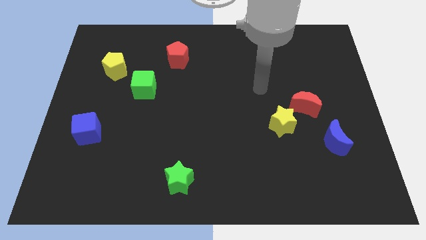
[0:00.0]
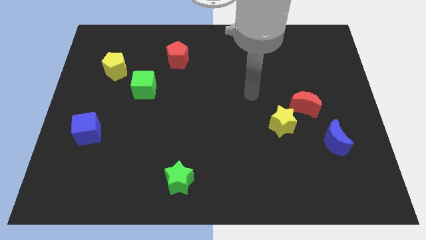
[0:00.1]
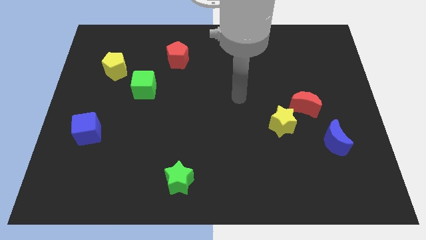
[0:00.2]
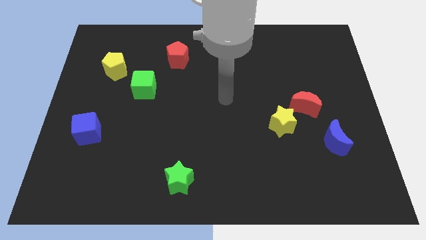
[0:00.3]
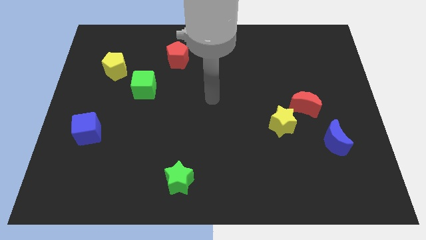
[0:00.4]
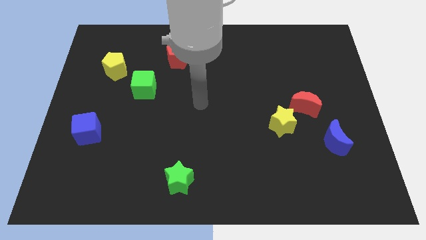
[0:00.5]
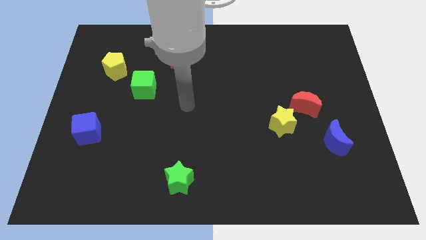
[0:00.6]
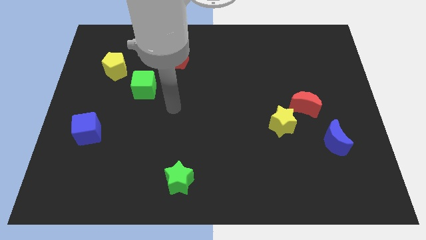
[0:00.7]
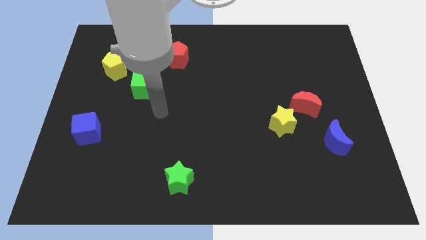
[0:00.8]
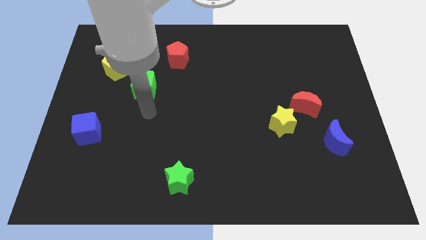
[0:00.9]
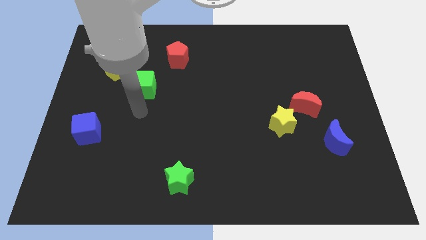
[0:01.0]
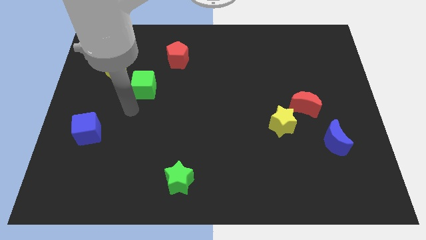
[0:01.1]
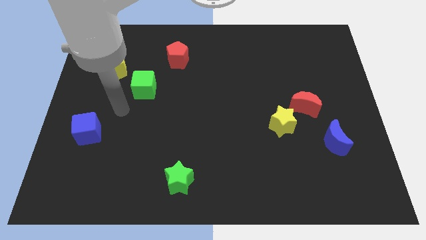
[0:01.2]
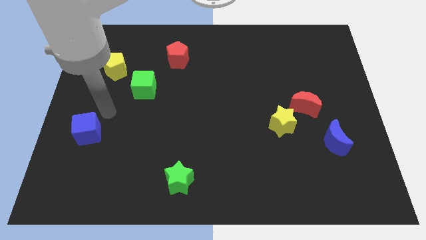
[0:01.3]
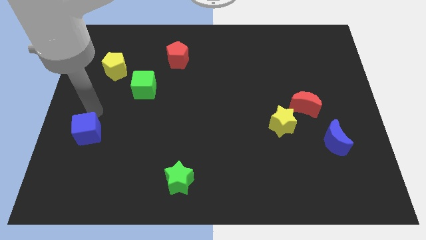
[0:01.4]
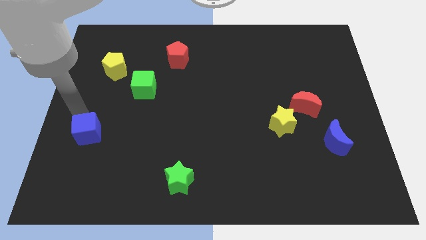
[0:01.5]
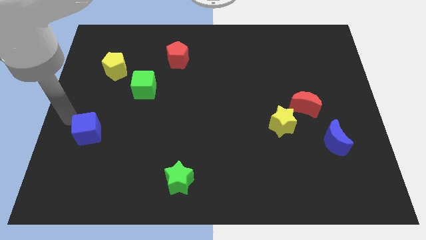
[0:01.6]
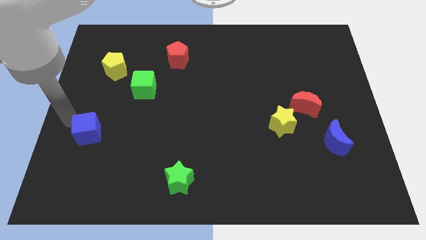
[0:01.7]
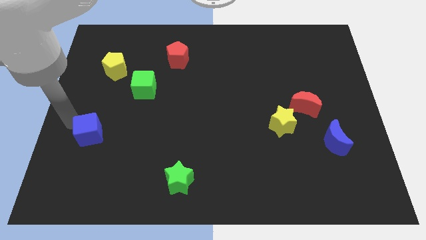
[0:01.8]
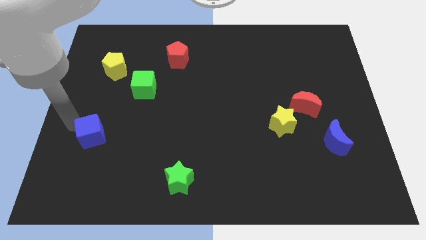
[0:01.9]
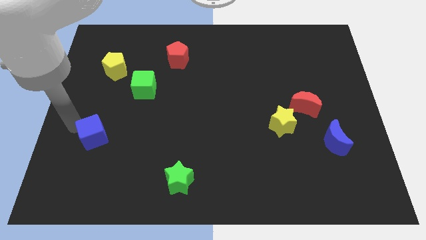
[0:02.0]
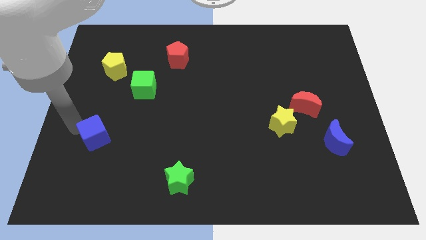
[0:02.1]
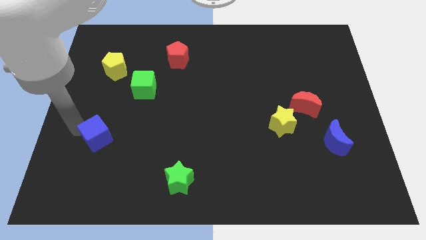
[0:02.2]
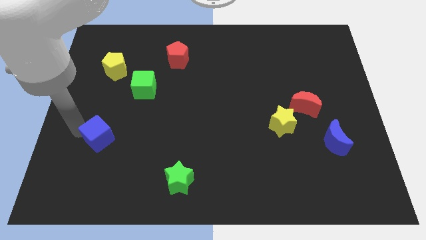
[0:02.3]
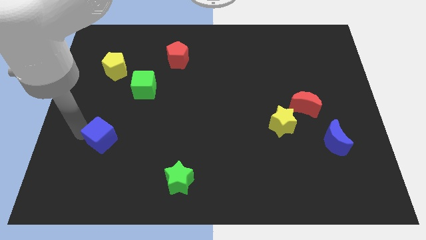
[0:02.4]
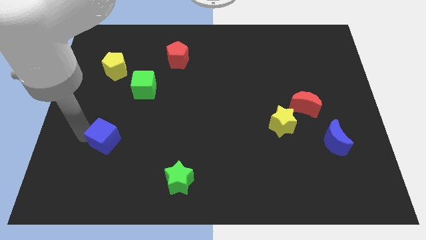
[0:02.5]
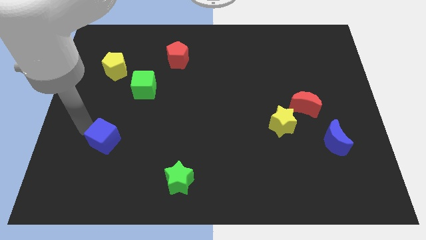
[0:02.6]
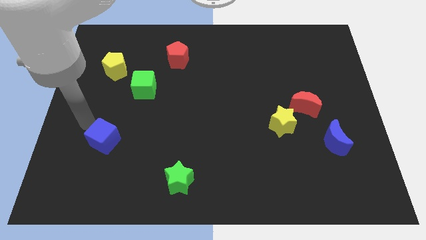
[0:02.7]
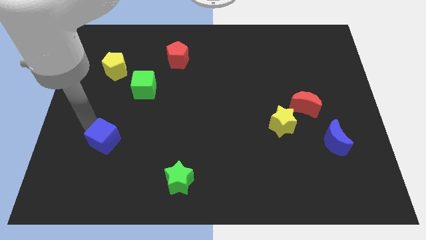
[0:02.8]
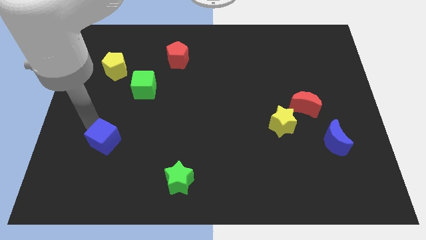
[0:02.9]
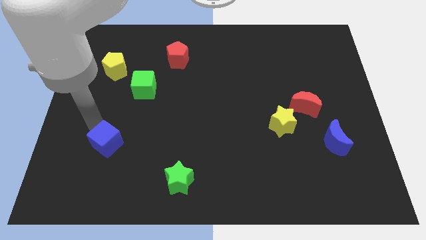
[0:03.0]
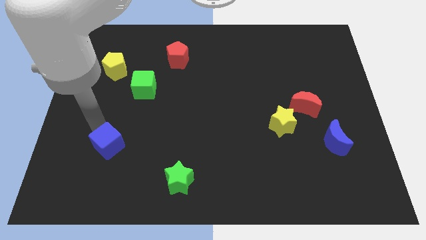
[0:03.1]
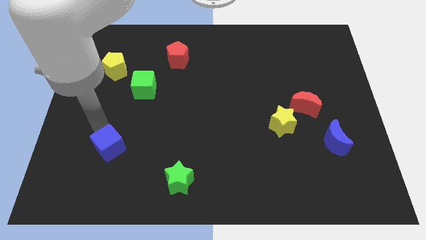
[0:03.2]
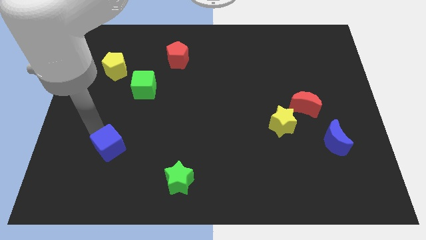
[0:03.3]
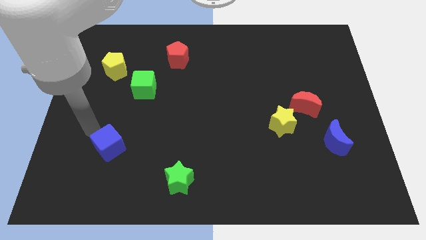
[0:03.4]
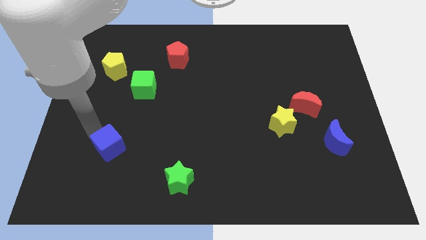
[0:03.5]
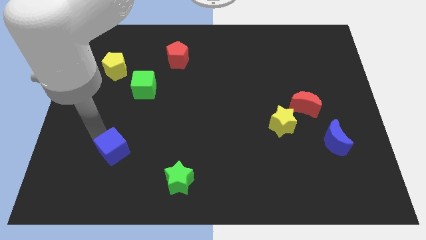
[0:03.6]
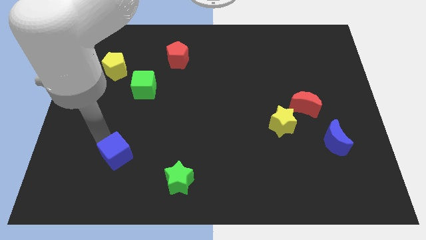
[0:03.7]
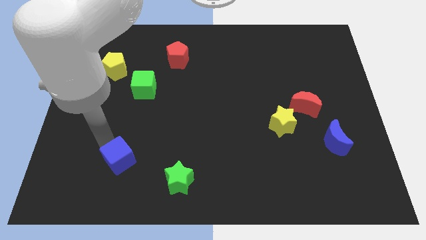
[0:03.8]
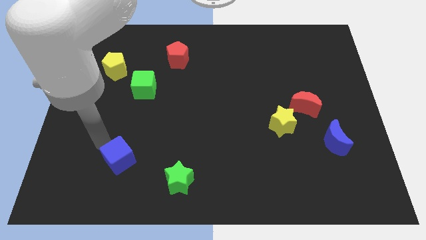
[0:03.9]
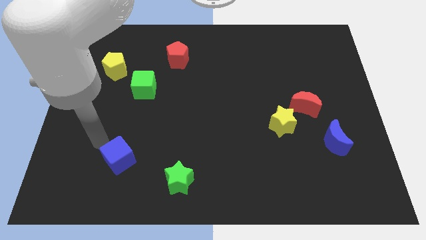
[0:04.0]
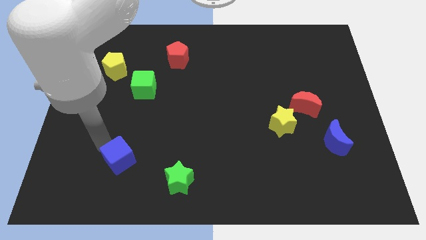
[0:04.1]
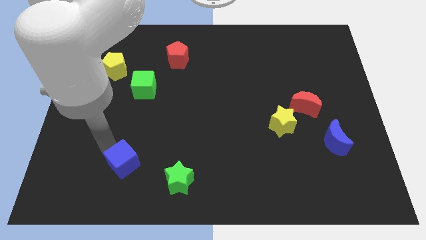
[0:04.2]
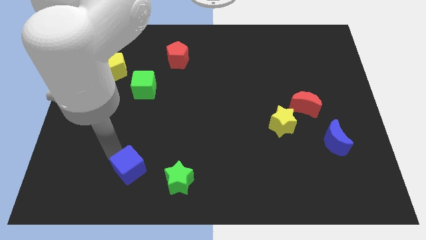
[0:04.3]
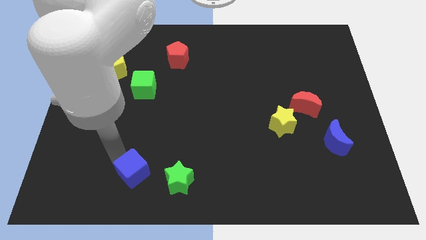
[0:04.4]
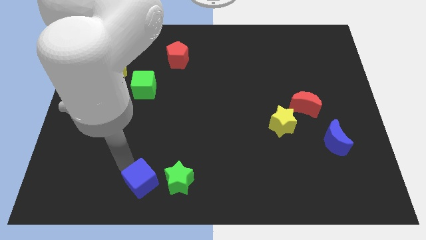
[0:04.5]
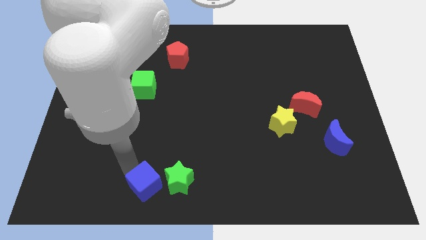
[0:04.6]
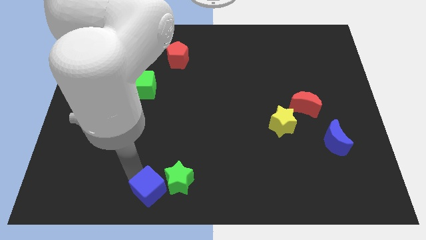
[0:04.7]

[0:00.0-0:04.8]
push the blue cube to the bottom side

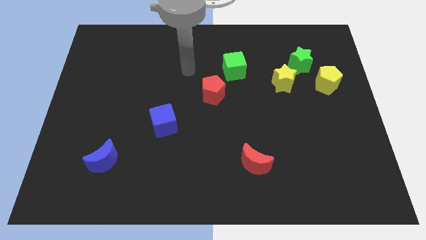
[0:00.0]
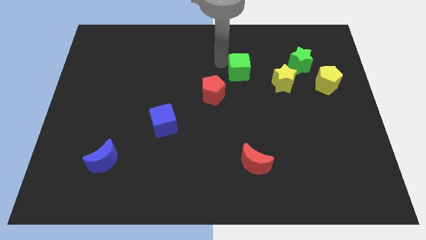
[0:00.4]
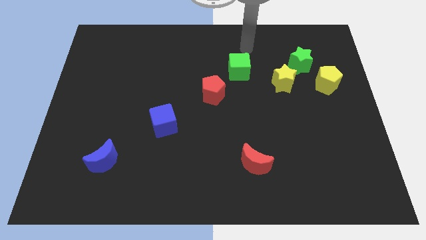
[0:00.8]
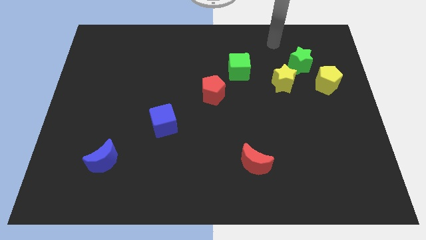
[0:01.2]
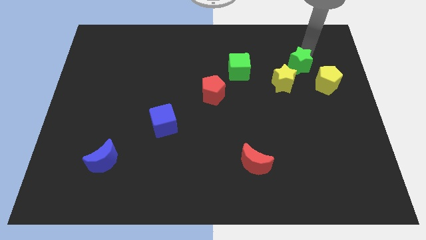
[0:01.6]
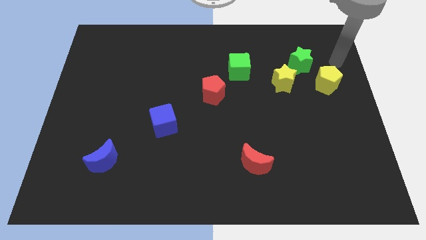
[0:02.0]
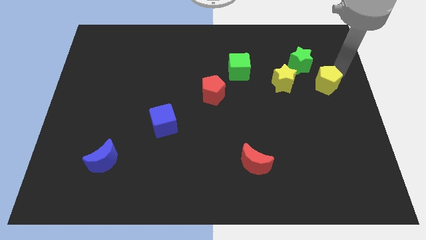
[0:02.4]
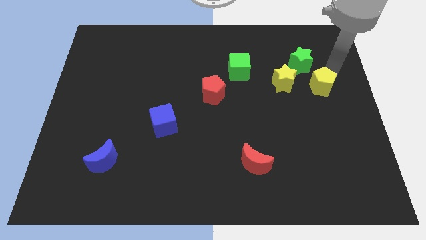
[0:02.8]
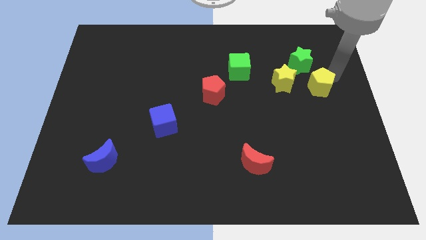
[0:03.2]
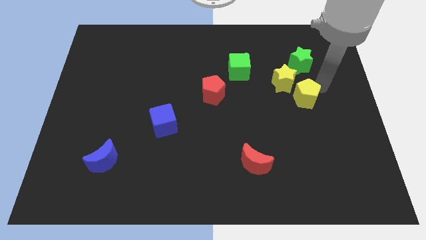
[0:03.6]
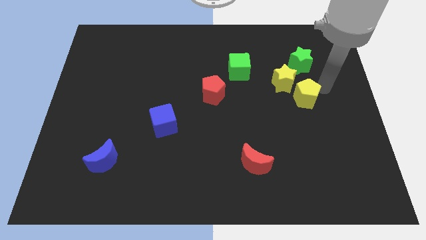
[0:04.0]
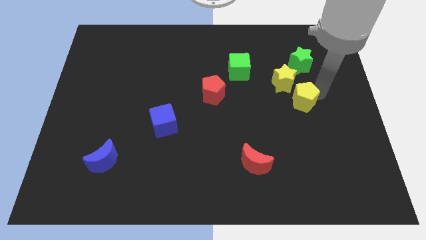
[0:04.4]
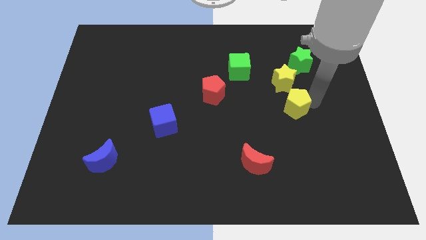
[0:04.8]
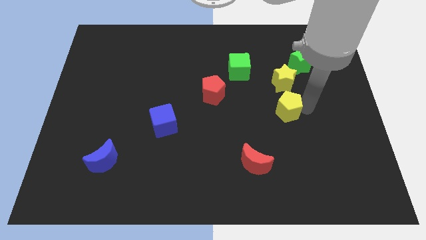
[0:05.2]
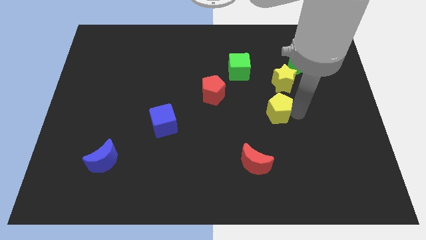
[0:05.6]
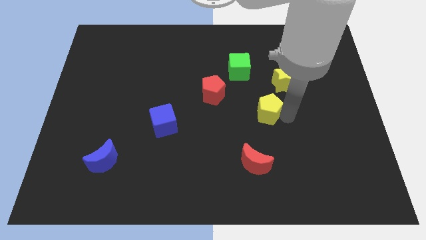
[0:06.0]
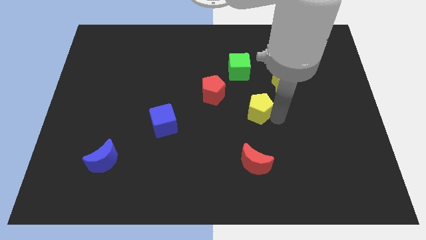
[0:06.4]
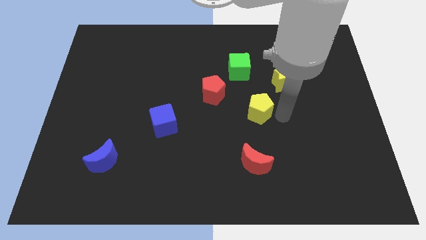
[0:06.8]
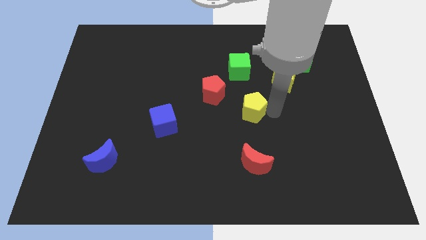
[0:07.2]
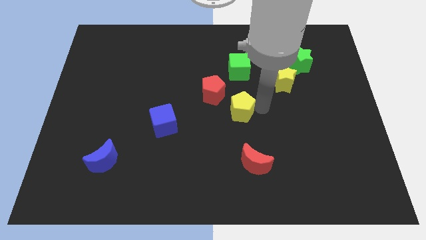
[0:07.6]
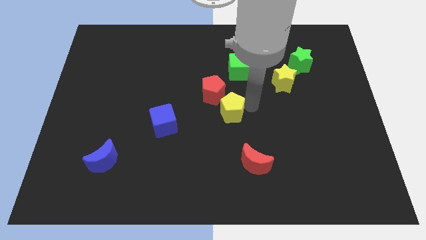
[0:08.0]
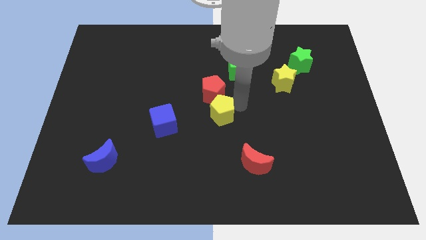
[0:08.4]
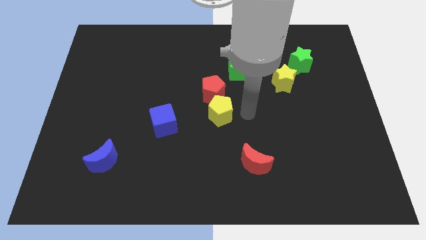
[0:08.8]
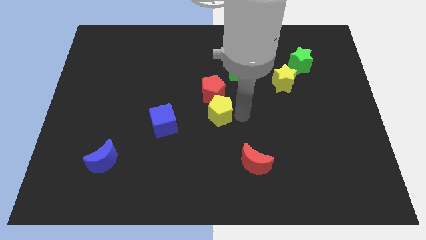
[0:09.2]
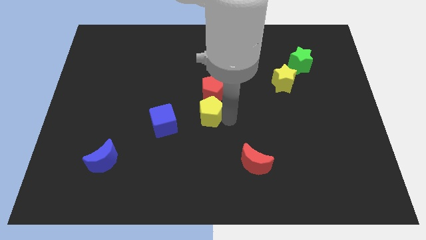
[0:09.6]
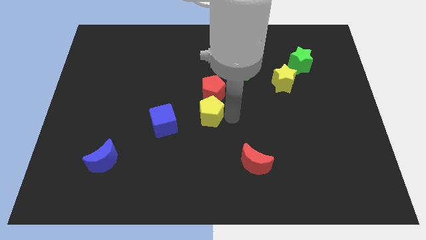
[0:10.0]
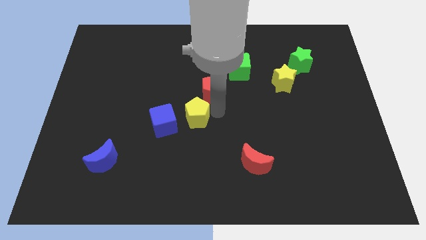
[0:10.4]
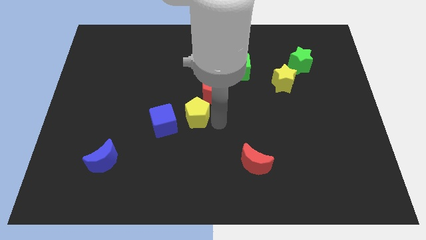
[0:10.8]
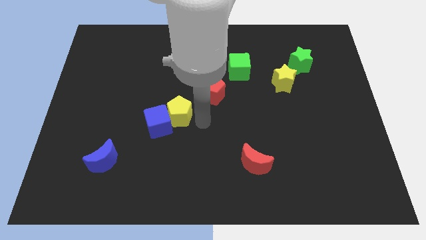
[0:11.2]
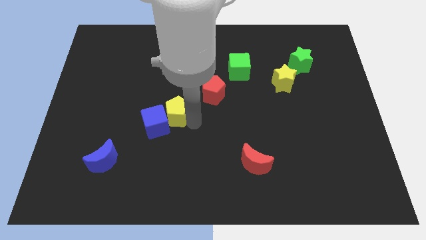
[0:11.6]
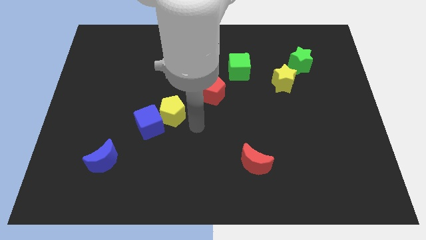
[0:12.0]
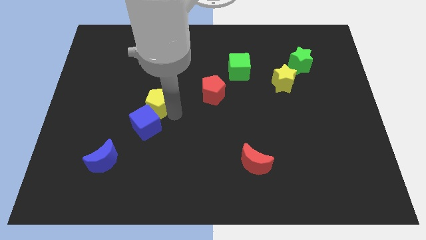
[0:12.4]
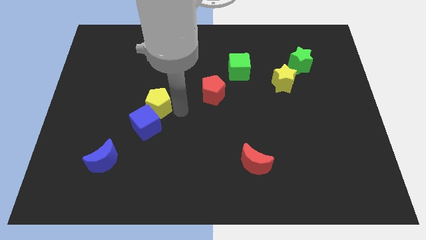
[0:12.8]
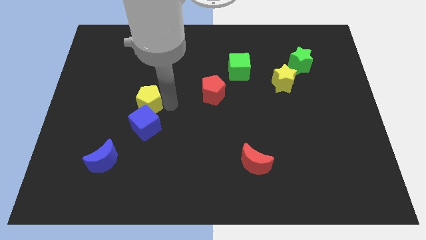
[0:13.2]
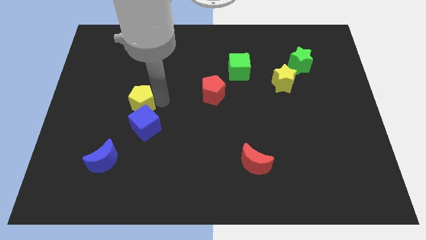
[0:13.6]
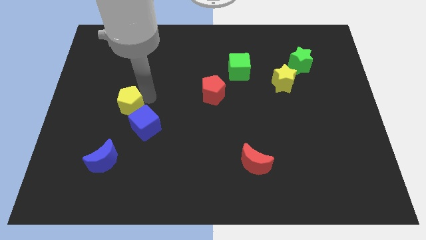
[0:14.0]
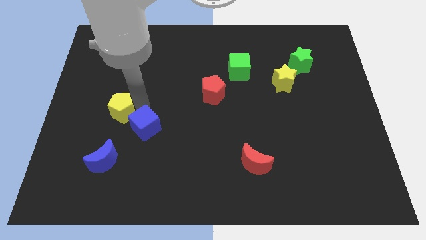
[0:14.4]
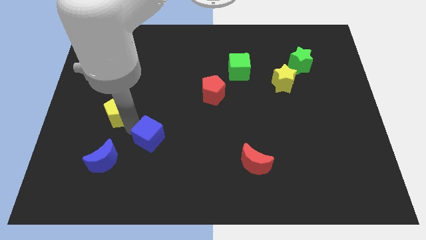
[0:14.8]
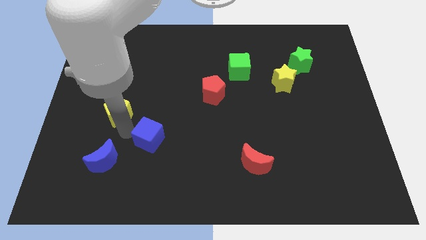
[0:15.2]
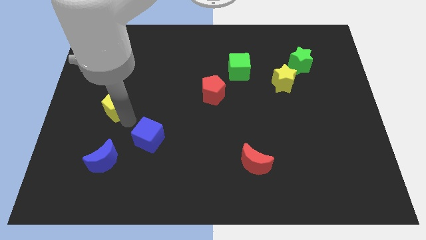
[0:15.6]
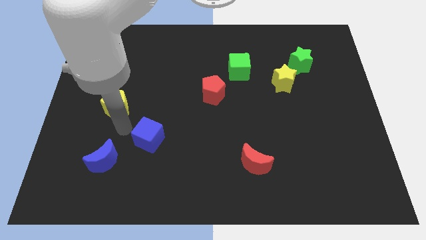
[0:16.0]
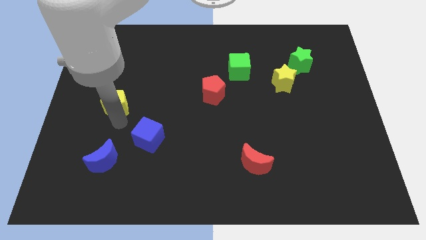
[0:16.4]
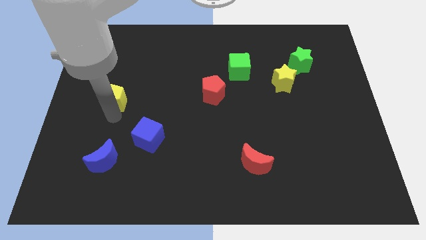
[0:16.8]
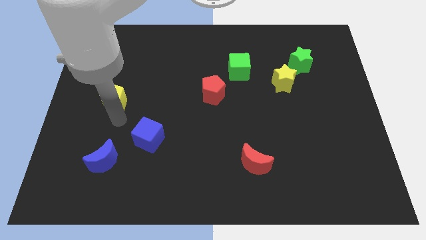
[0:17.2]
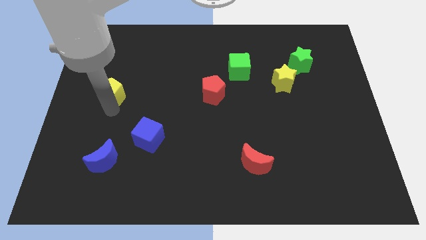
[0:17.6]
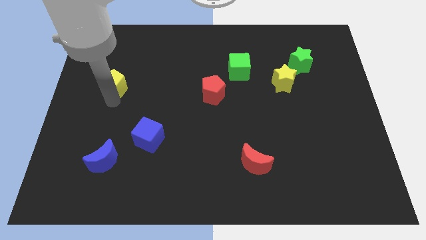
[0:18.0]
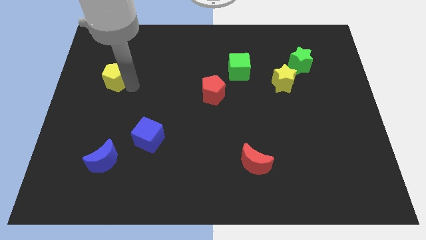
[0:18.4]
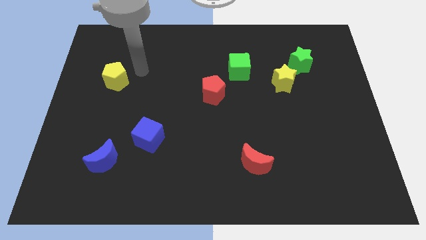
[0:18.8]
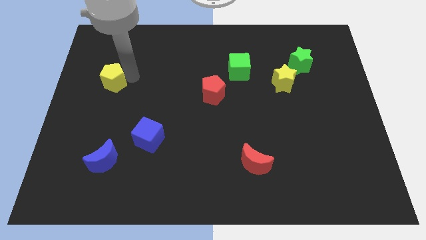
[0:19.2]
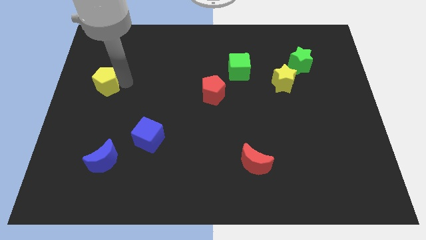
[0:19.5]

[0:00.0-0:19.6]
push the yellow pentagon to the center left
